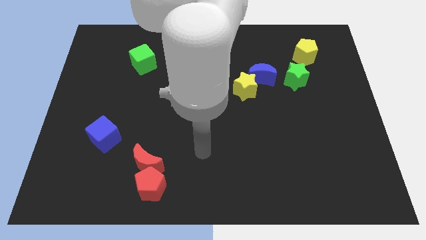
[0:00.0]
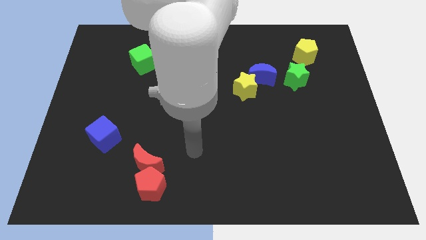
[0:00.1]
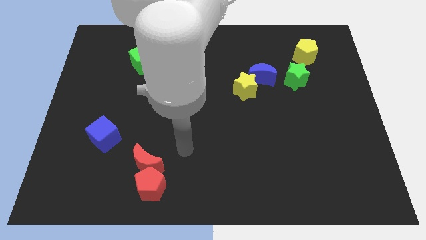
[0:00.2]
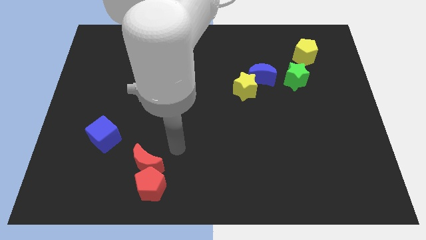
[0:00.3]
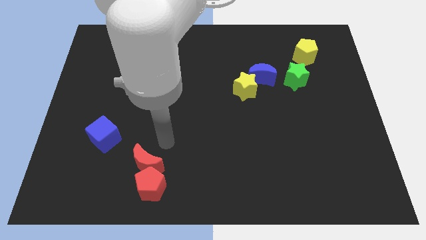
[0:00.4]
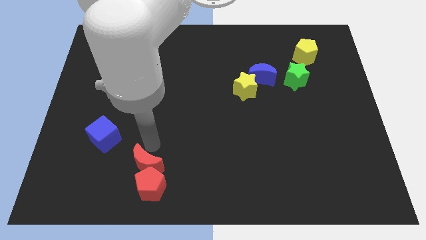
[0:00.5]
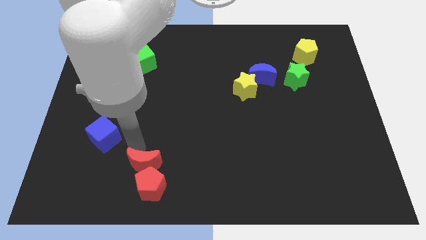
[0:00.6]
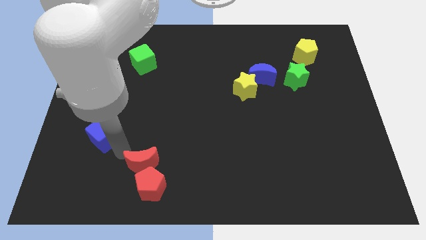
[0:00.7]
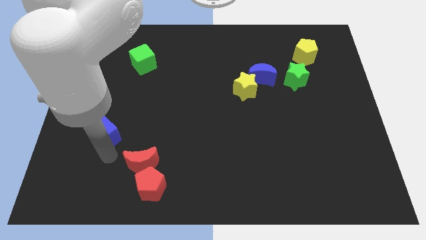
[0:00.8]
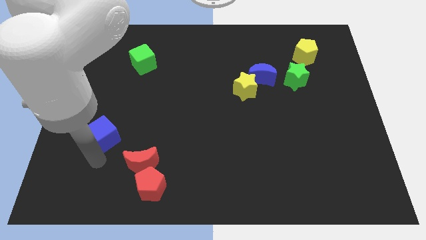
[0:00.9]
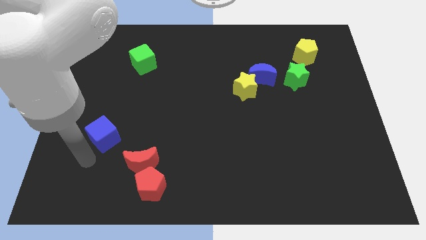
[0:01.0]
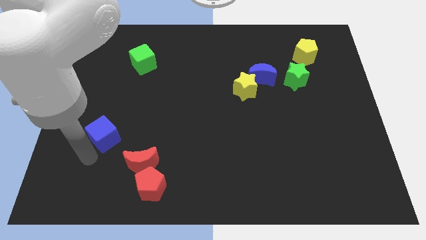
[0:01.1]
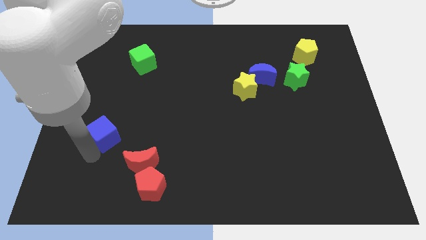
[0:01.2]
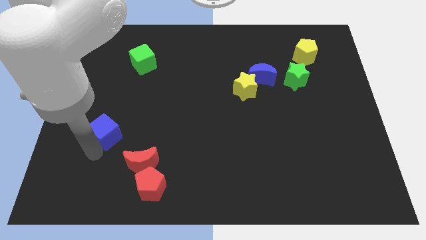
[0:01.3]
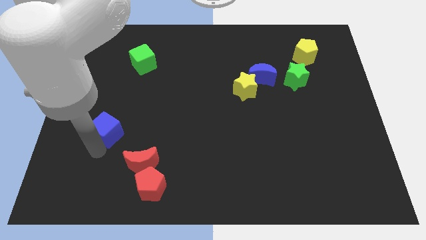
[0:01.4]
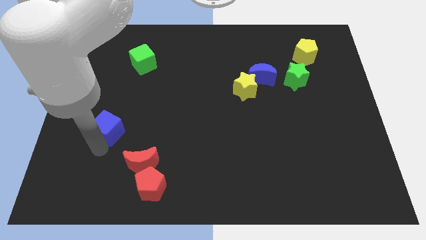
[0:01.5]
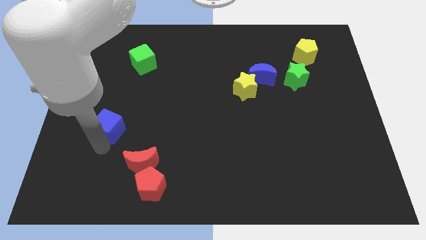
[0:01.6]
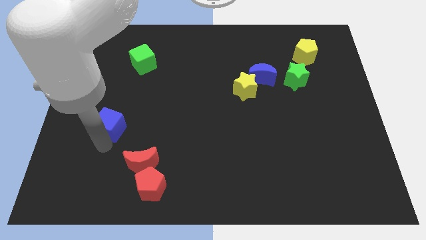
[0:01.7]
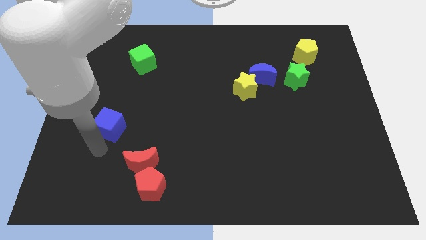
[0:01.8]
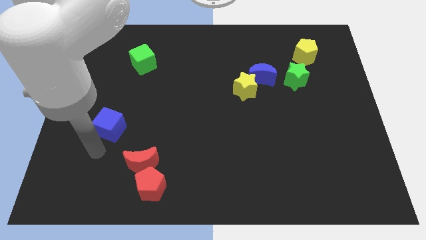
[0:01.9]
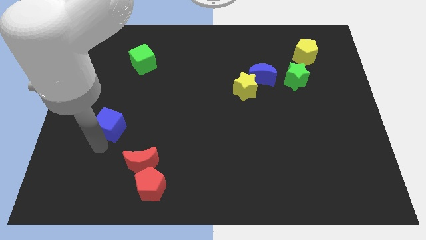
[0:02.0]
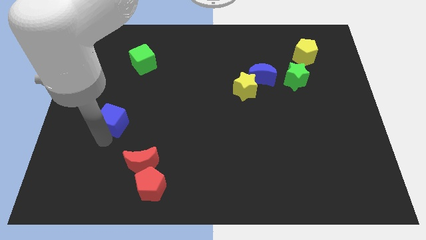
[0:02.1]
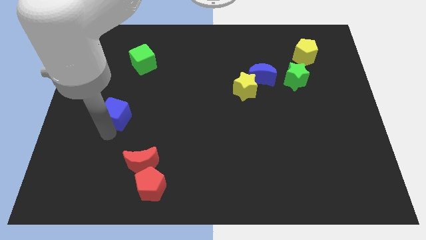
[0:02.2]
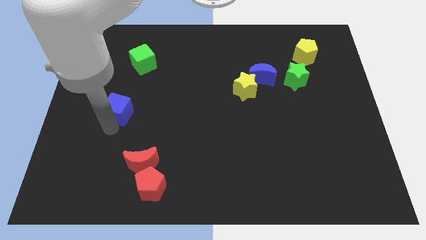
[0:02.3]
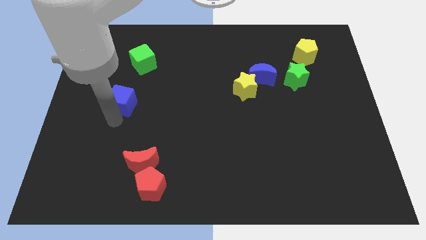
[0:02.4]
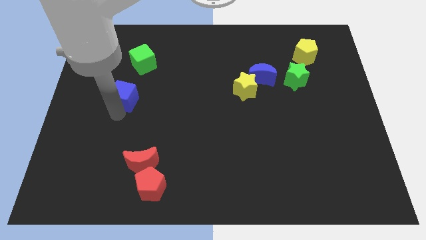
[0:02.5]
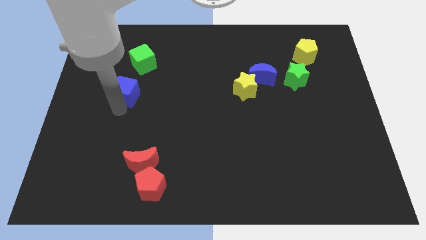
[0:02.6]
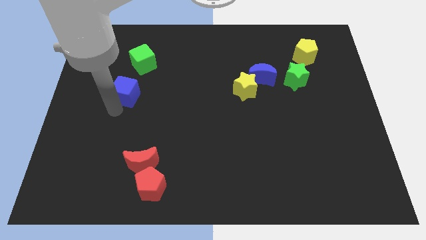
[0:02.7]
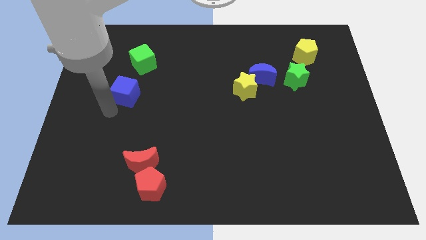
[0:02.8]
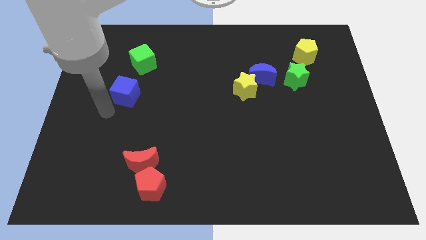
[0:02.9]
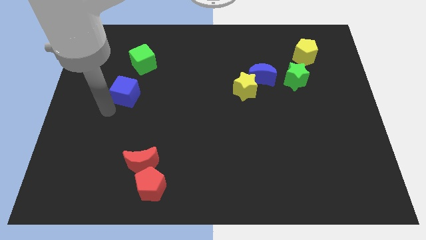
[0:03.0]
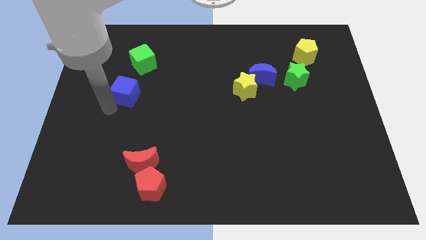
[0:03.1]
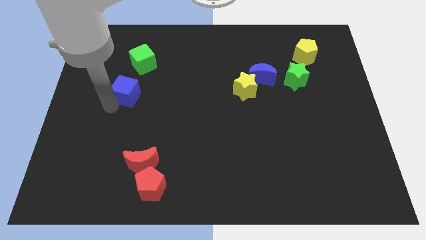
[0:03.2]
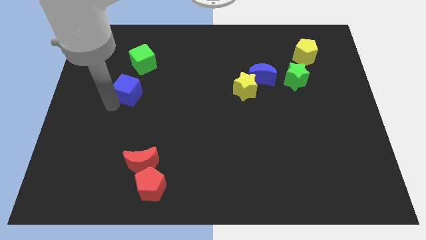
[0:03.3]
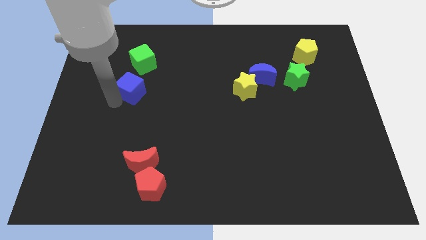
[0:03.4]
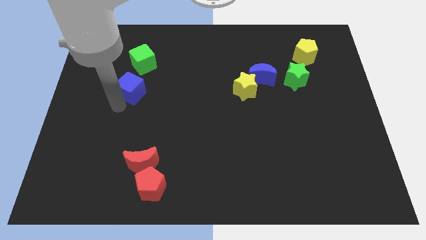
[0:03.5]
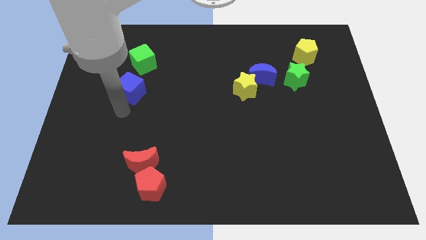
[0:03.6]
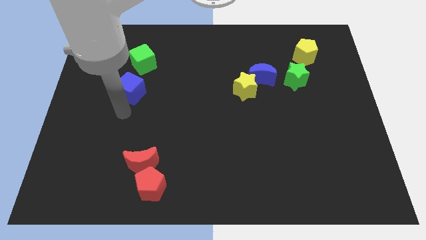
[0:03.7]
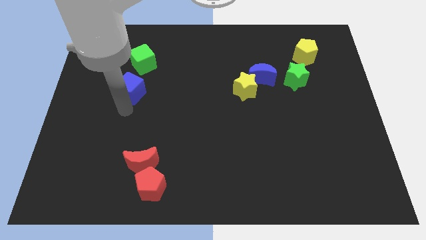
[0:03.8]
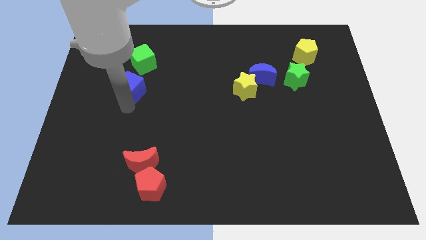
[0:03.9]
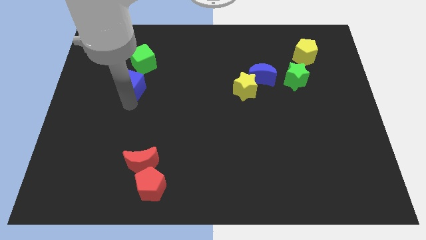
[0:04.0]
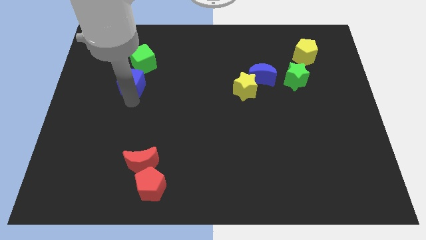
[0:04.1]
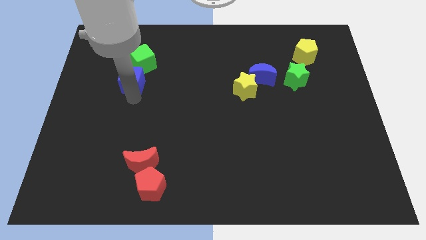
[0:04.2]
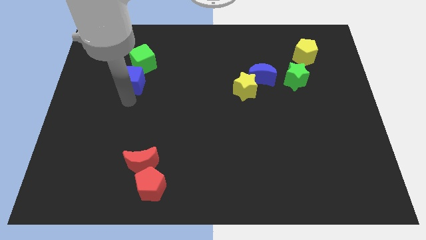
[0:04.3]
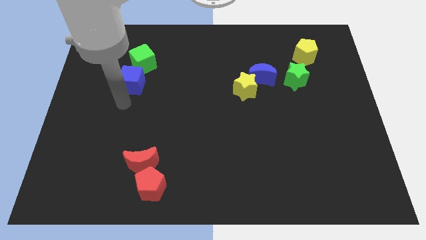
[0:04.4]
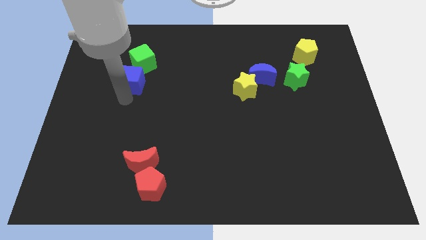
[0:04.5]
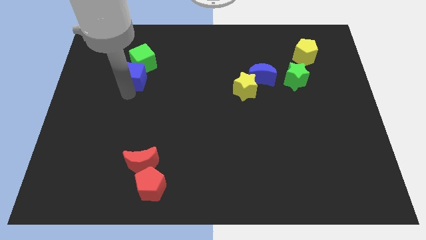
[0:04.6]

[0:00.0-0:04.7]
push the blue cube to the green cube

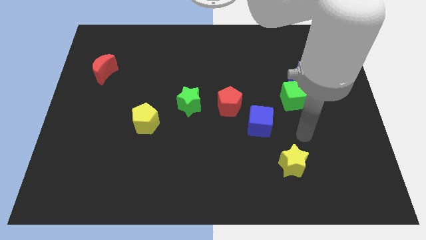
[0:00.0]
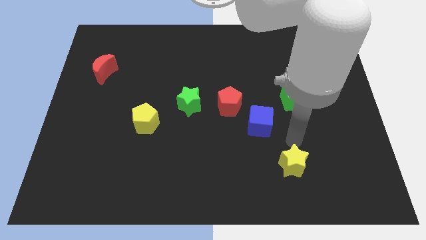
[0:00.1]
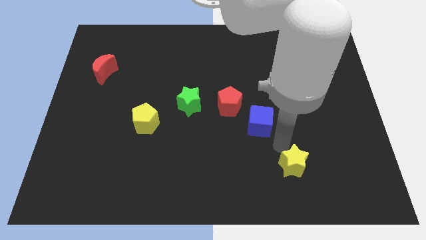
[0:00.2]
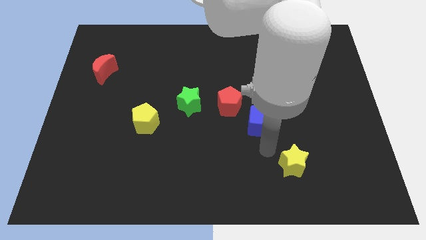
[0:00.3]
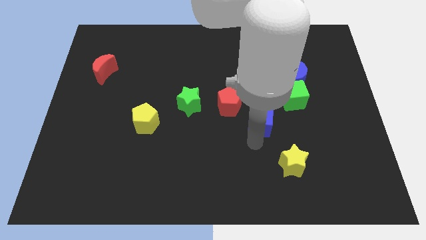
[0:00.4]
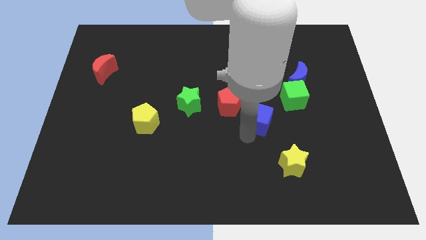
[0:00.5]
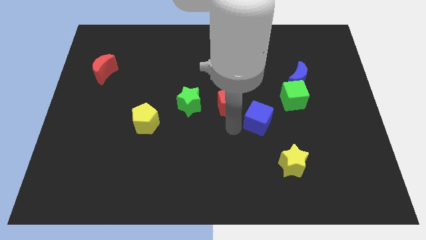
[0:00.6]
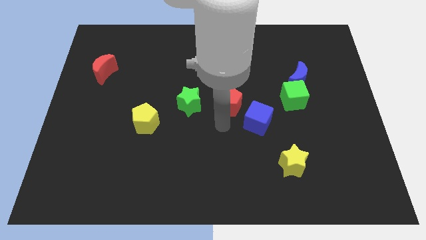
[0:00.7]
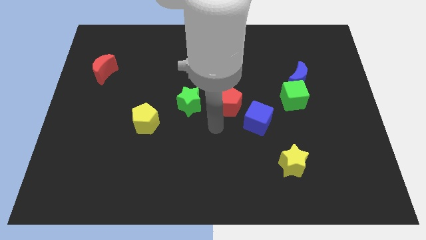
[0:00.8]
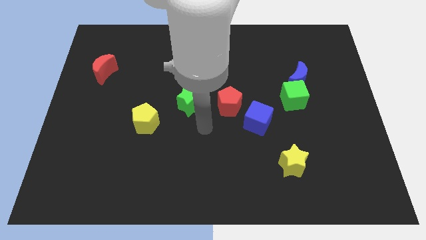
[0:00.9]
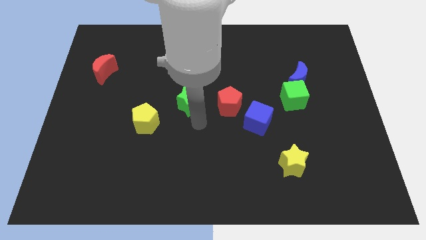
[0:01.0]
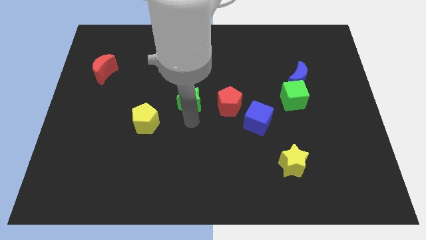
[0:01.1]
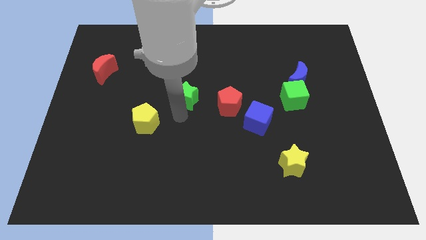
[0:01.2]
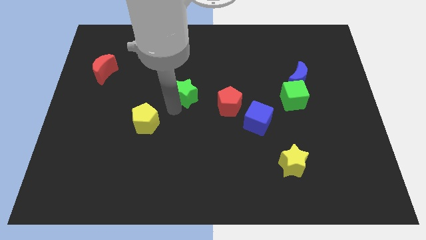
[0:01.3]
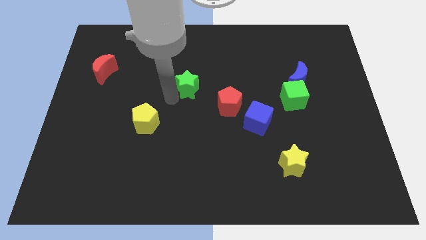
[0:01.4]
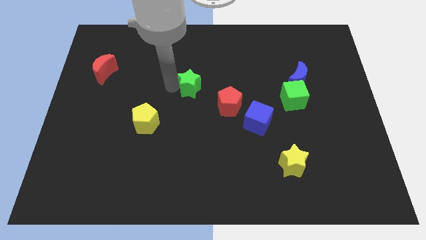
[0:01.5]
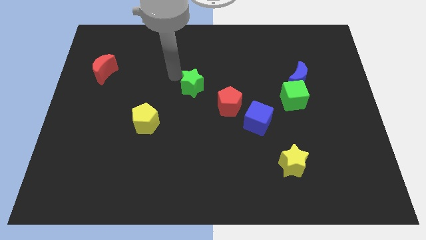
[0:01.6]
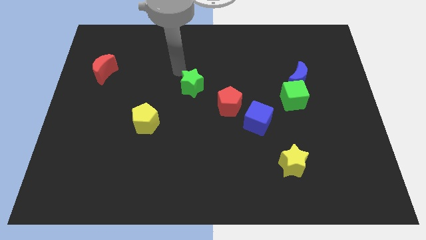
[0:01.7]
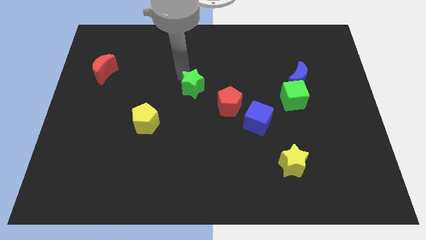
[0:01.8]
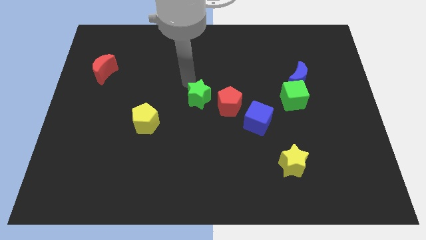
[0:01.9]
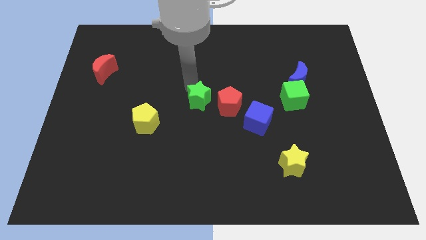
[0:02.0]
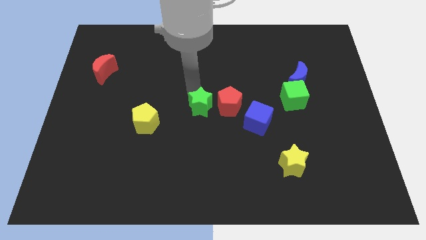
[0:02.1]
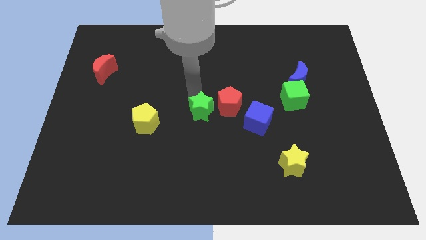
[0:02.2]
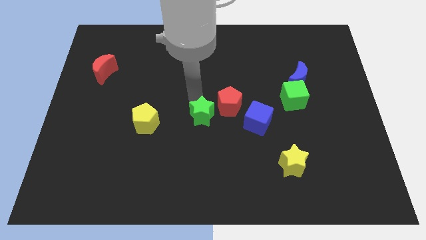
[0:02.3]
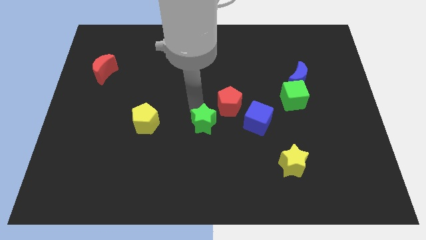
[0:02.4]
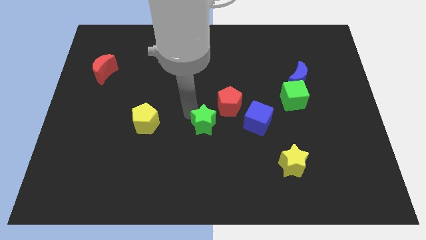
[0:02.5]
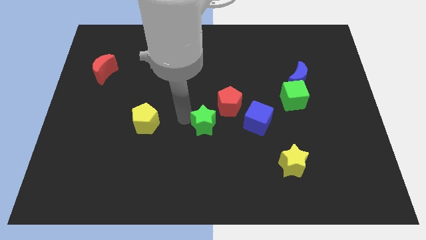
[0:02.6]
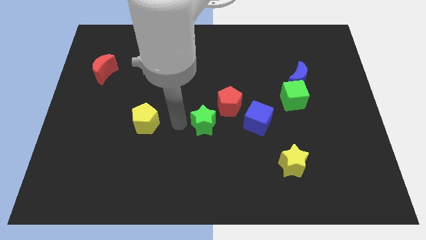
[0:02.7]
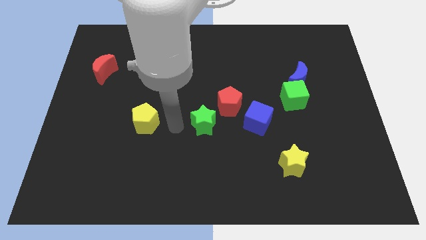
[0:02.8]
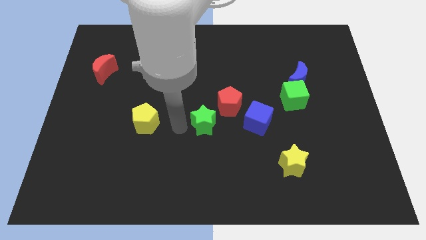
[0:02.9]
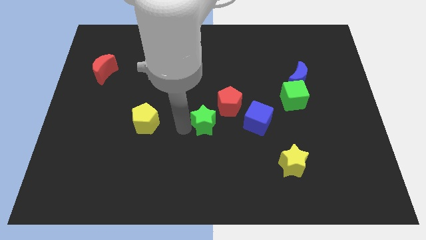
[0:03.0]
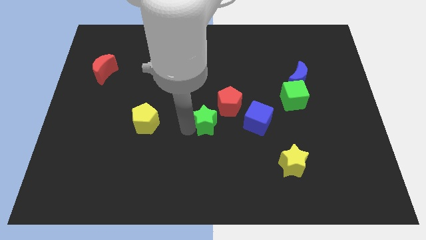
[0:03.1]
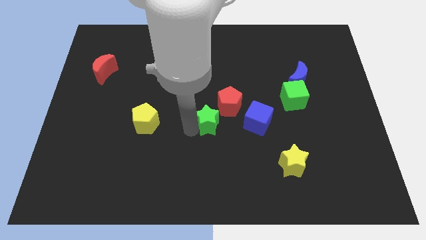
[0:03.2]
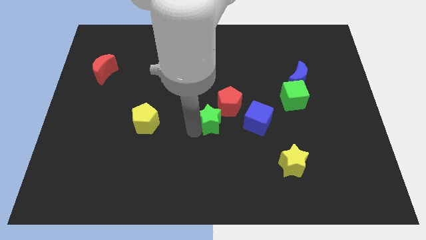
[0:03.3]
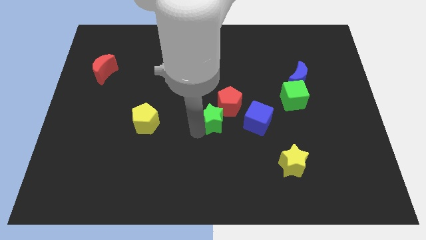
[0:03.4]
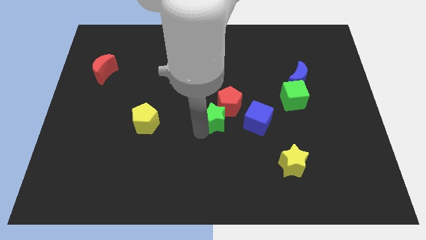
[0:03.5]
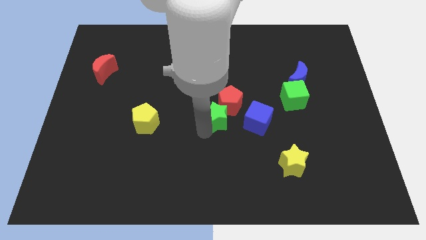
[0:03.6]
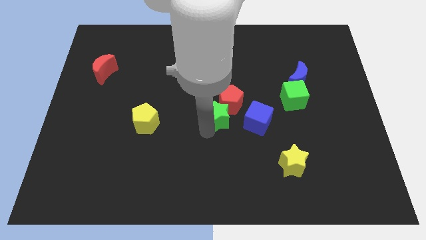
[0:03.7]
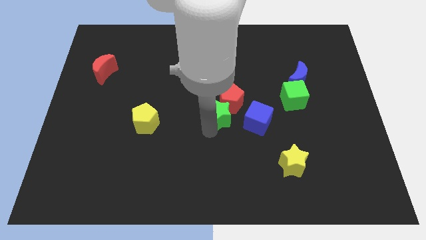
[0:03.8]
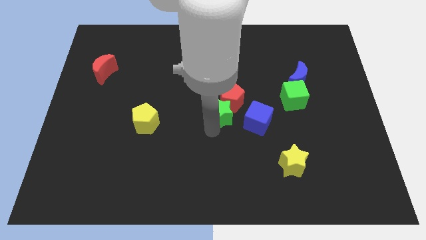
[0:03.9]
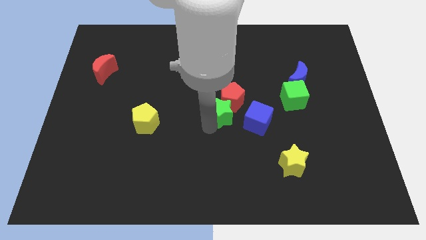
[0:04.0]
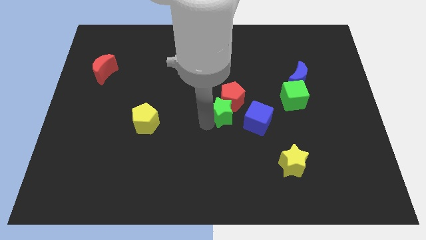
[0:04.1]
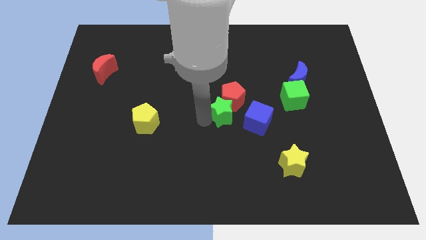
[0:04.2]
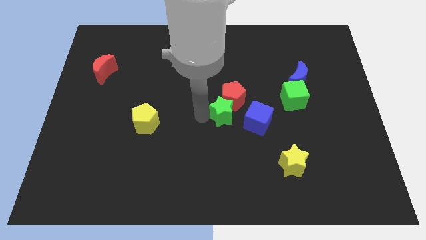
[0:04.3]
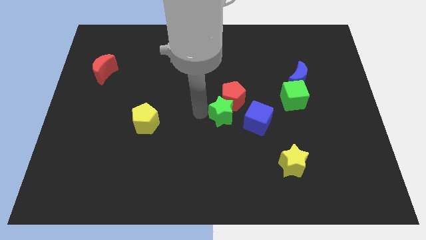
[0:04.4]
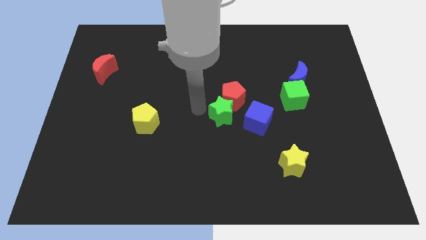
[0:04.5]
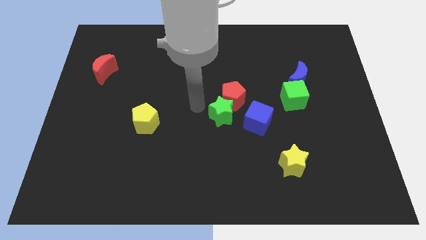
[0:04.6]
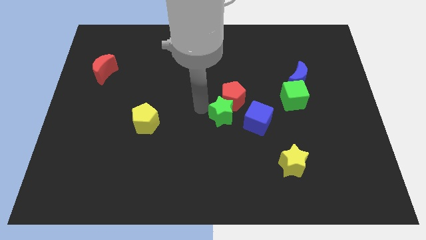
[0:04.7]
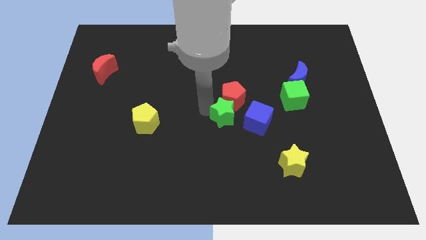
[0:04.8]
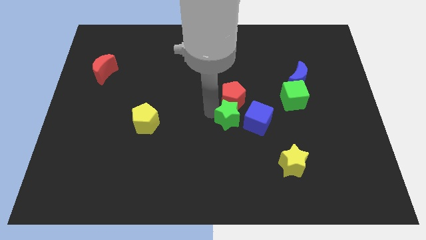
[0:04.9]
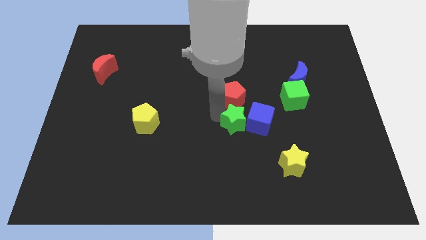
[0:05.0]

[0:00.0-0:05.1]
put the green star next to the blue cube
